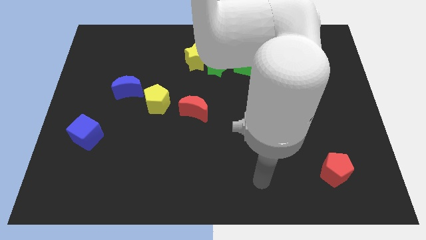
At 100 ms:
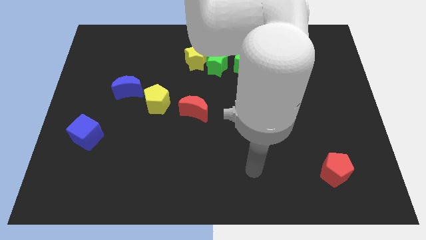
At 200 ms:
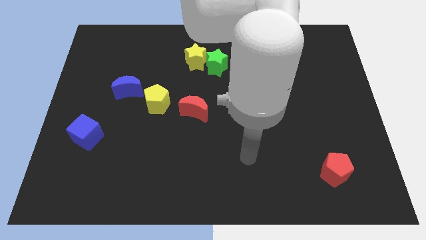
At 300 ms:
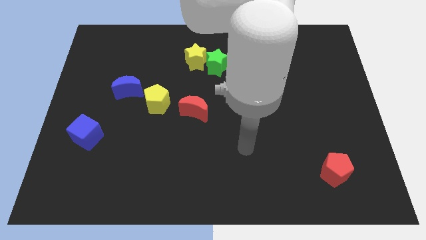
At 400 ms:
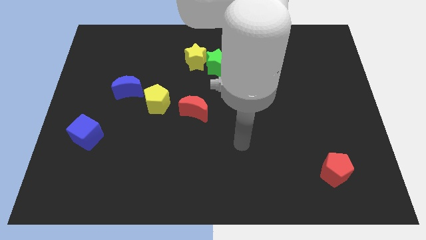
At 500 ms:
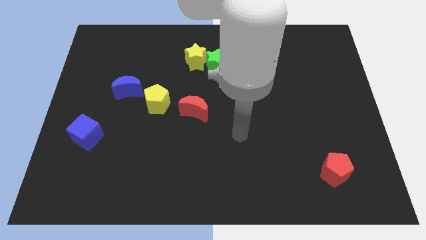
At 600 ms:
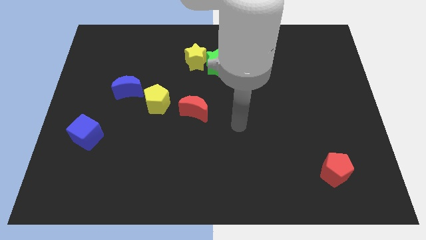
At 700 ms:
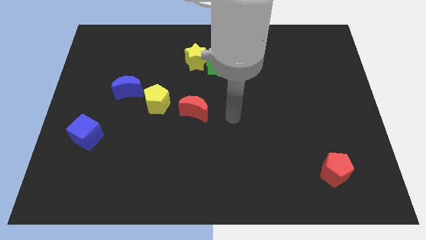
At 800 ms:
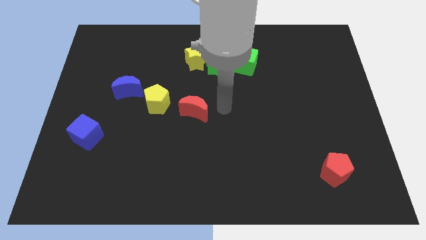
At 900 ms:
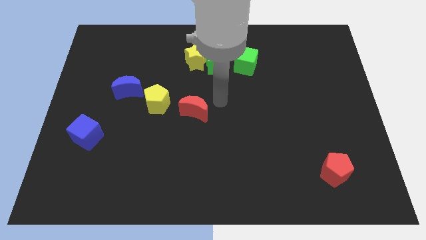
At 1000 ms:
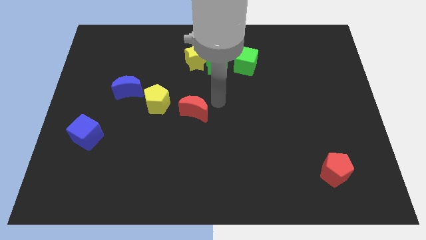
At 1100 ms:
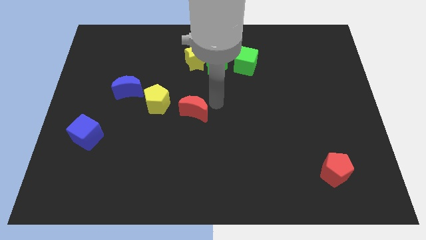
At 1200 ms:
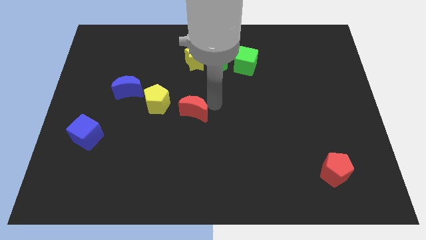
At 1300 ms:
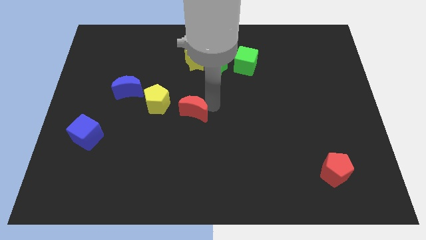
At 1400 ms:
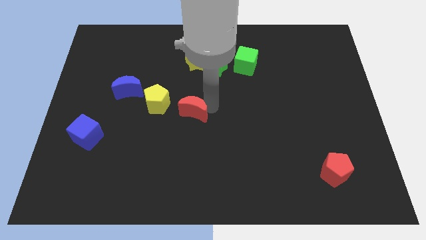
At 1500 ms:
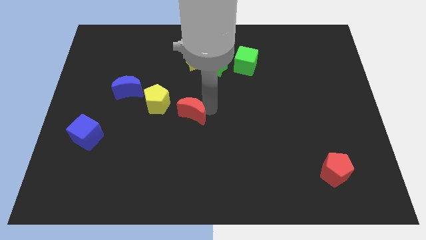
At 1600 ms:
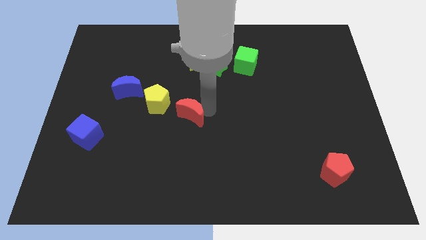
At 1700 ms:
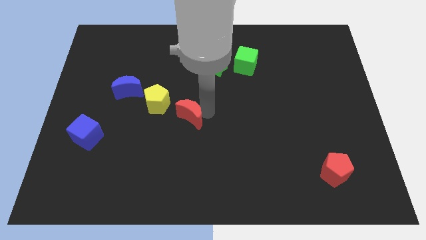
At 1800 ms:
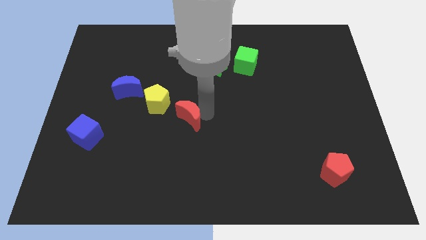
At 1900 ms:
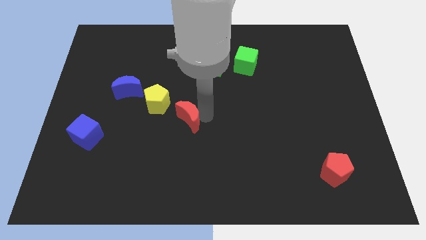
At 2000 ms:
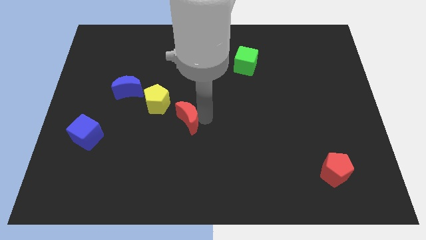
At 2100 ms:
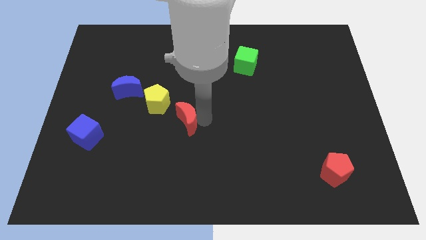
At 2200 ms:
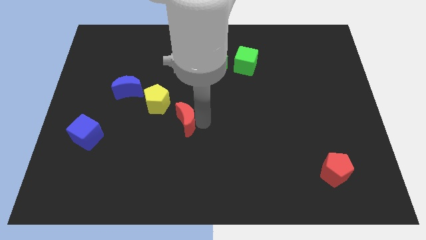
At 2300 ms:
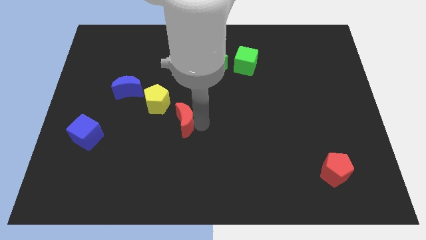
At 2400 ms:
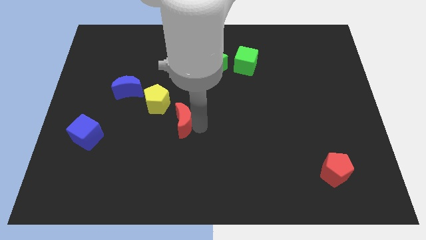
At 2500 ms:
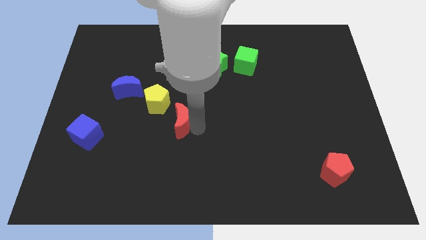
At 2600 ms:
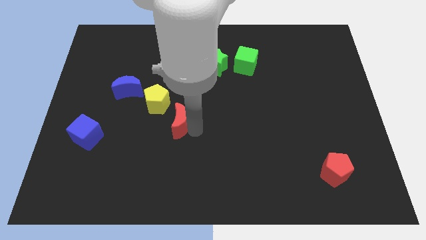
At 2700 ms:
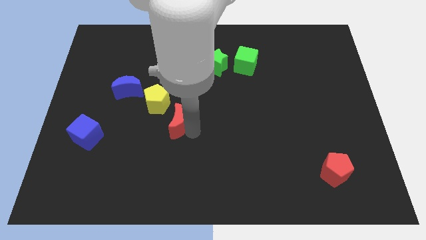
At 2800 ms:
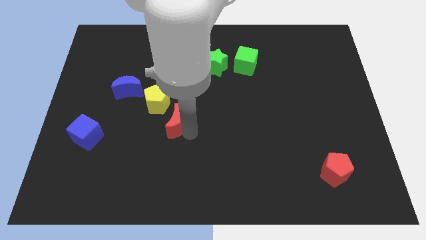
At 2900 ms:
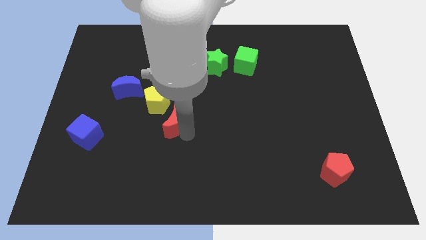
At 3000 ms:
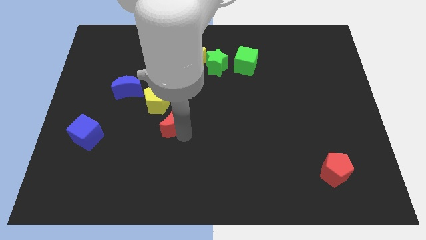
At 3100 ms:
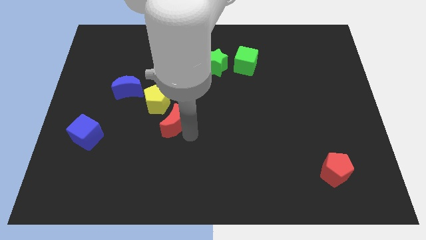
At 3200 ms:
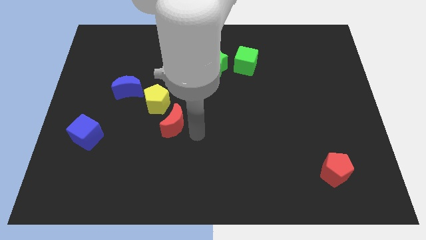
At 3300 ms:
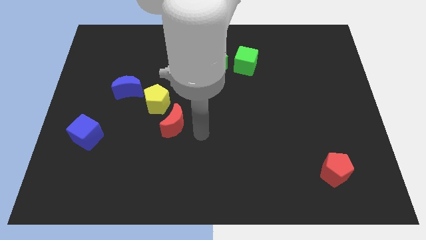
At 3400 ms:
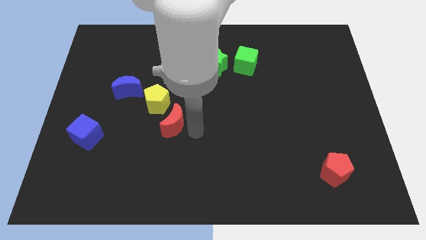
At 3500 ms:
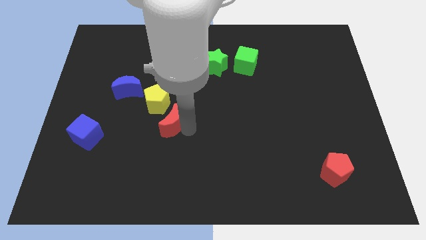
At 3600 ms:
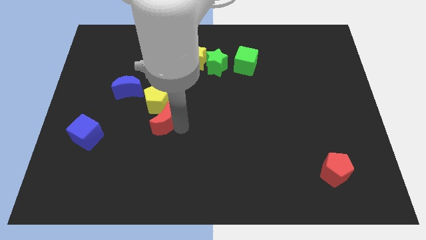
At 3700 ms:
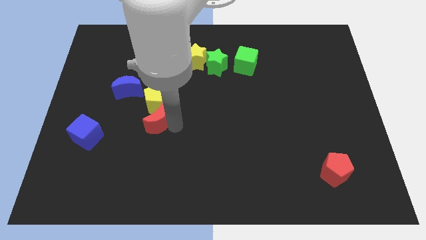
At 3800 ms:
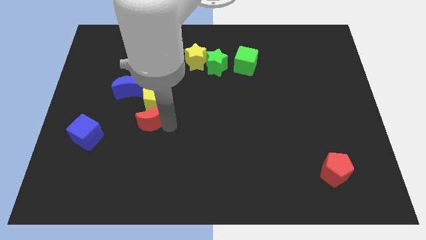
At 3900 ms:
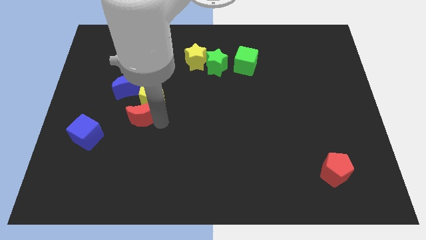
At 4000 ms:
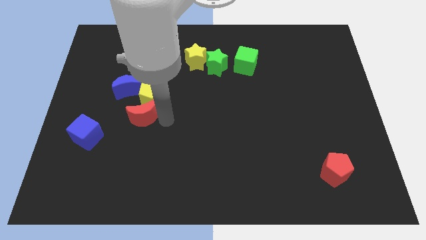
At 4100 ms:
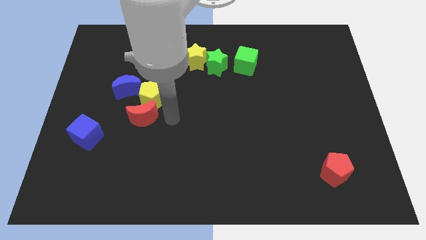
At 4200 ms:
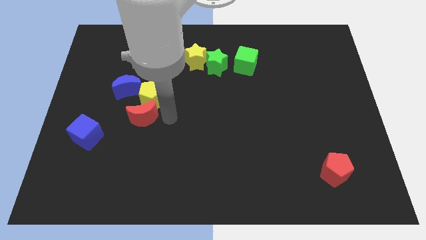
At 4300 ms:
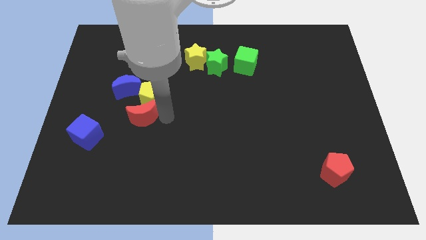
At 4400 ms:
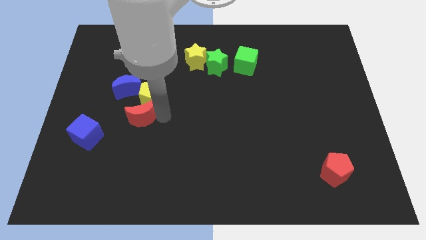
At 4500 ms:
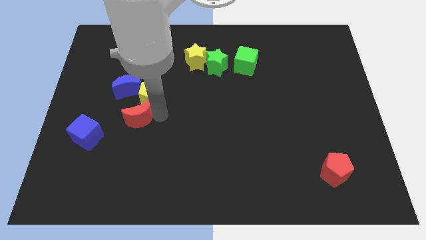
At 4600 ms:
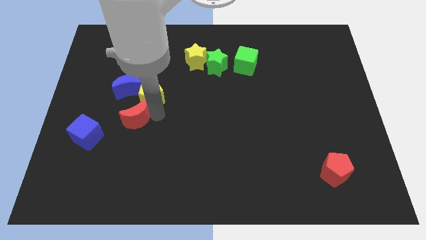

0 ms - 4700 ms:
push the red moon diagonally up and to the right of the blue cube

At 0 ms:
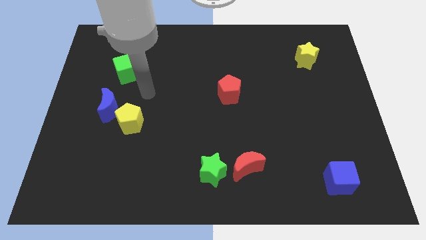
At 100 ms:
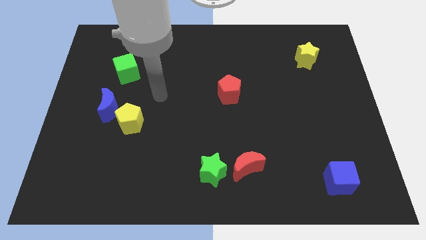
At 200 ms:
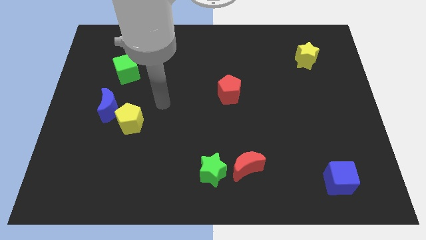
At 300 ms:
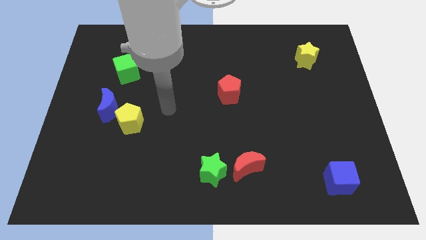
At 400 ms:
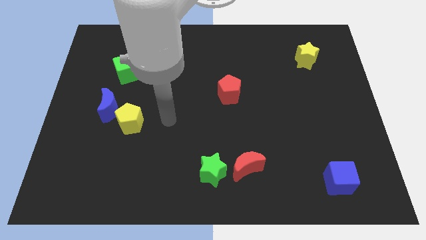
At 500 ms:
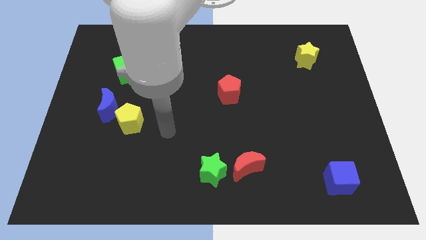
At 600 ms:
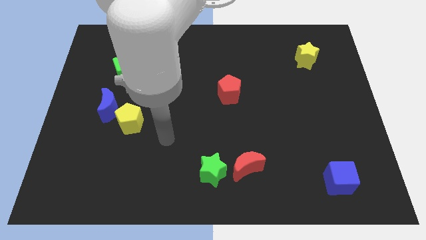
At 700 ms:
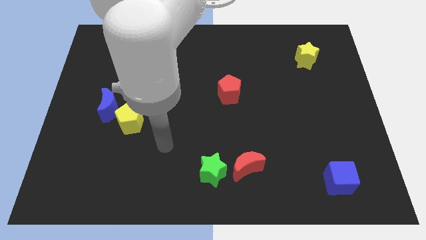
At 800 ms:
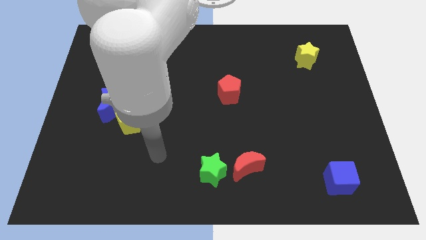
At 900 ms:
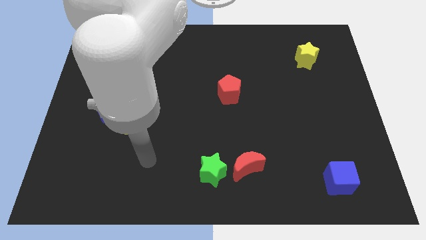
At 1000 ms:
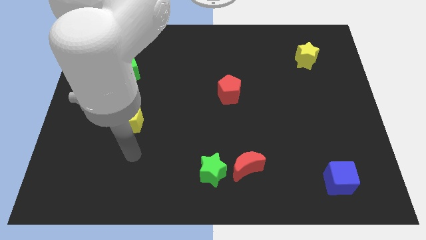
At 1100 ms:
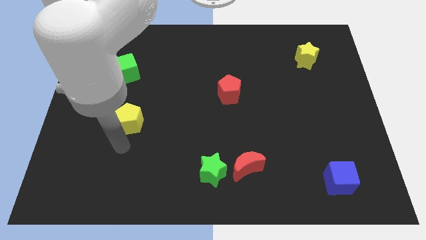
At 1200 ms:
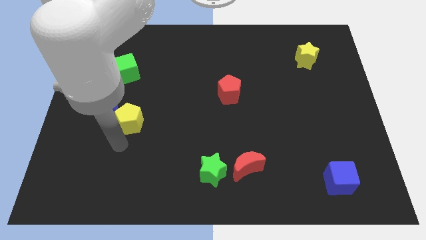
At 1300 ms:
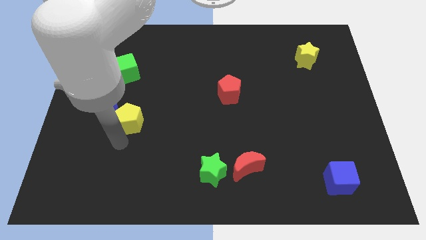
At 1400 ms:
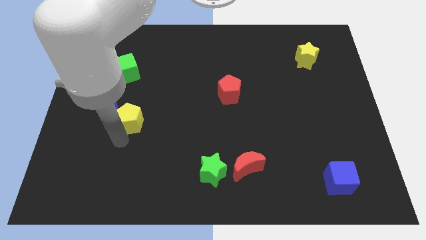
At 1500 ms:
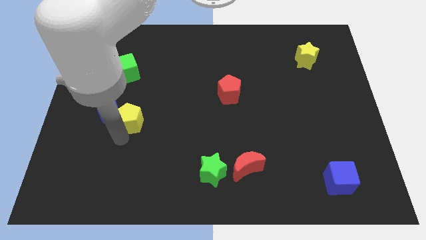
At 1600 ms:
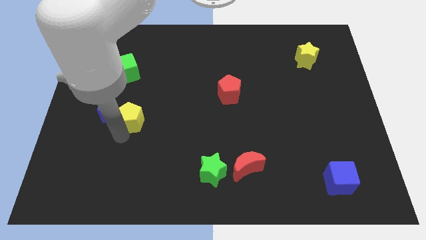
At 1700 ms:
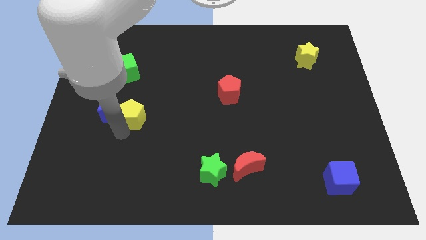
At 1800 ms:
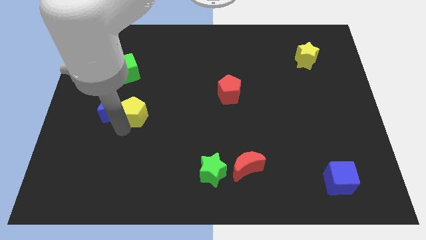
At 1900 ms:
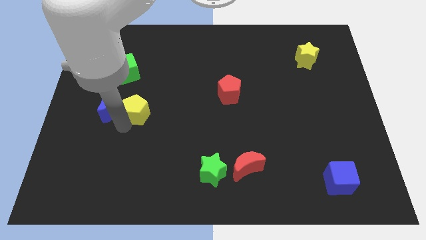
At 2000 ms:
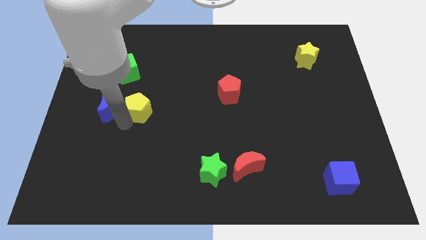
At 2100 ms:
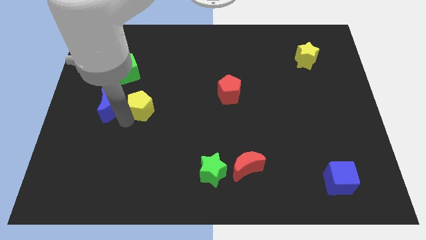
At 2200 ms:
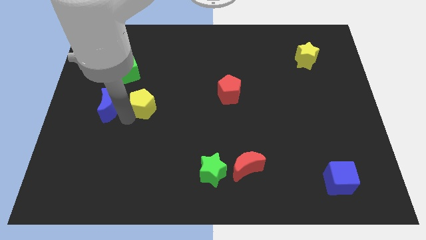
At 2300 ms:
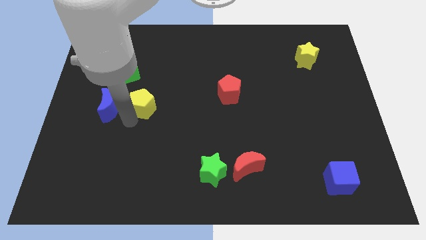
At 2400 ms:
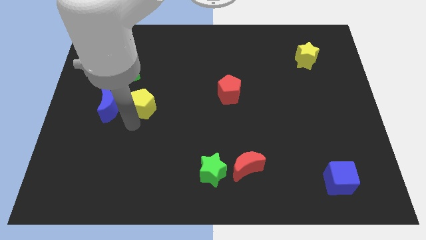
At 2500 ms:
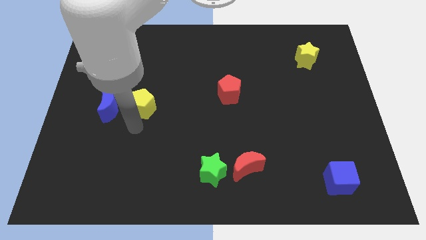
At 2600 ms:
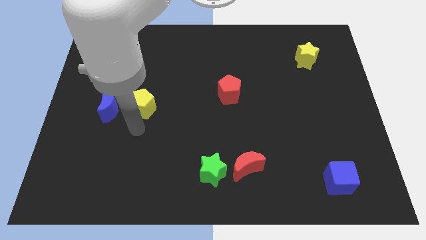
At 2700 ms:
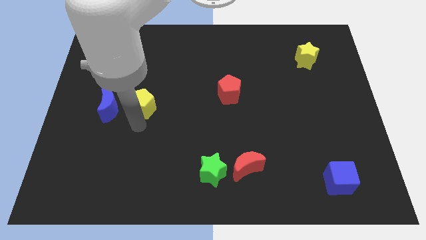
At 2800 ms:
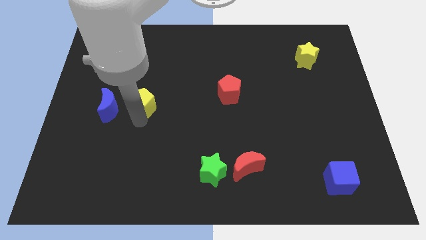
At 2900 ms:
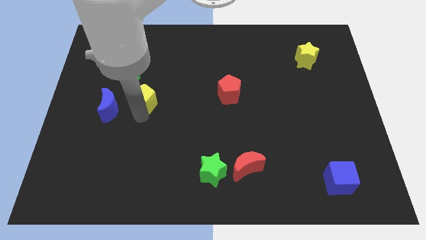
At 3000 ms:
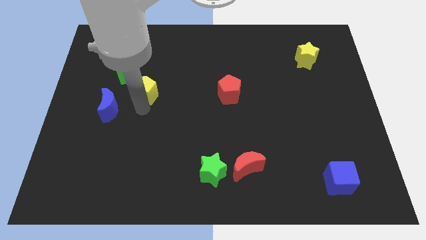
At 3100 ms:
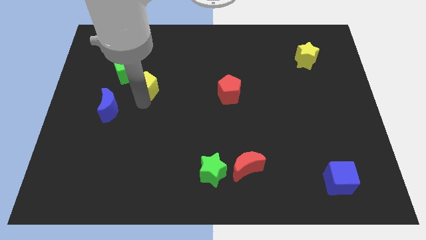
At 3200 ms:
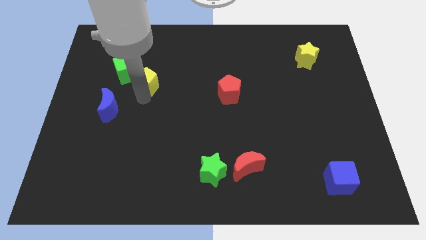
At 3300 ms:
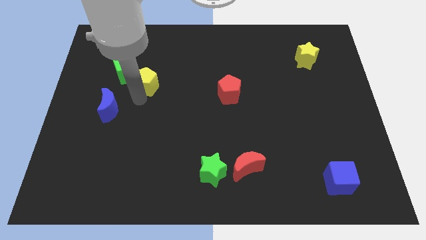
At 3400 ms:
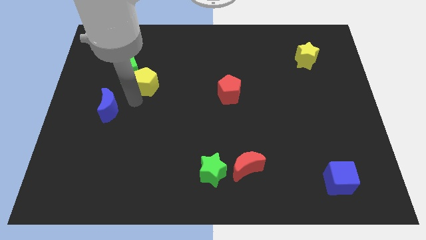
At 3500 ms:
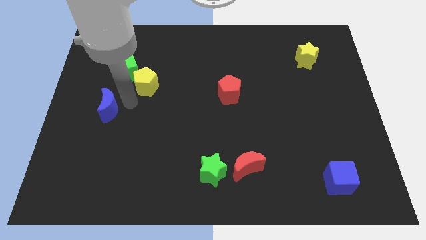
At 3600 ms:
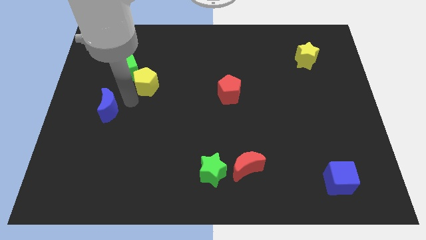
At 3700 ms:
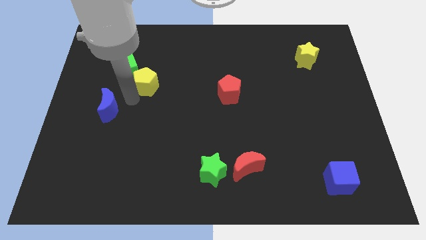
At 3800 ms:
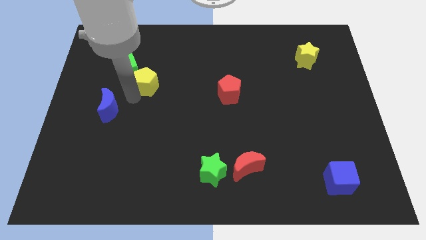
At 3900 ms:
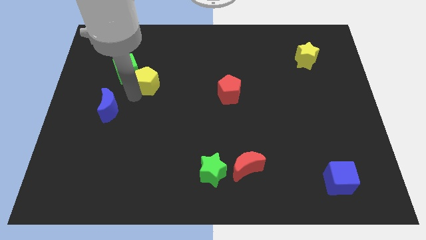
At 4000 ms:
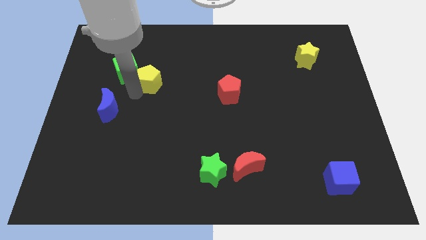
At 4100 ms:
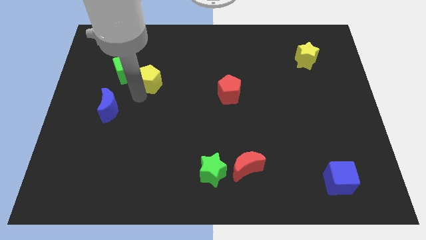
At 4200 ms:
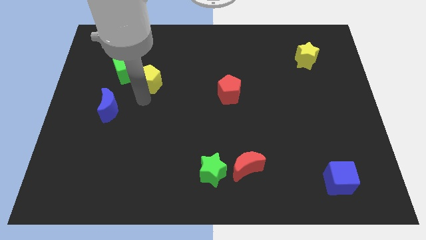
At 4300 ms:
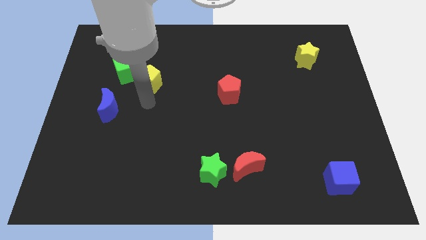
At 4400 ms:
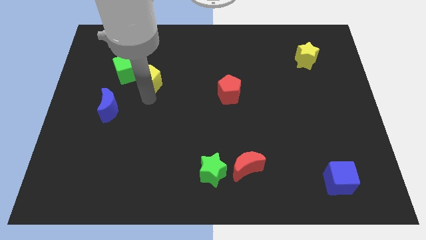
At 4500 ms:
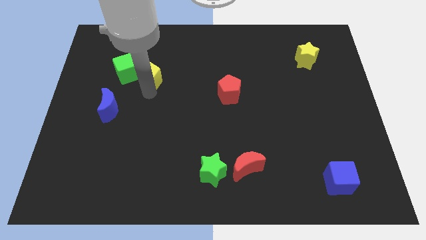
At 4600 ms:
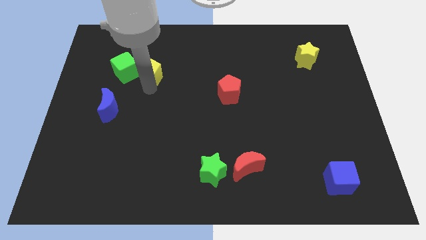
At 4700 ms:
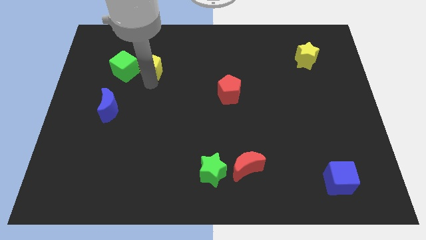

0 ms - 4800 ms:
push the yellow pentagon diagonally up and to the right of the green cube
